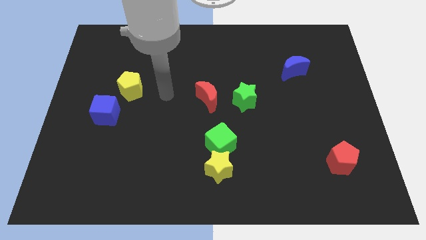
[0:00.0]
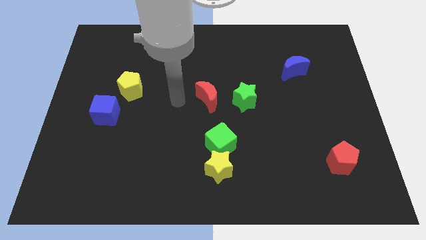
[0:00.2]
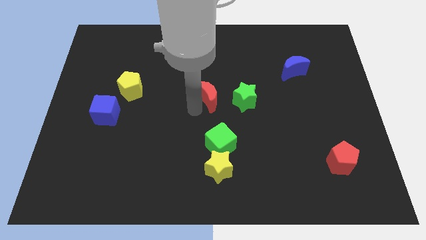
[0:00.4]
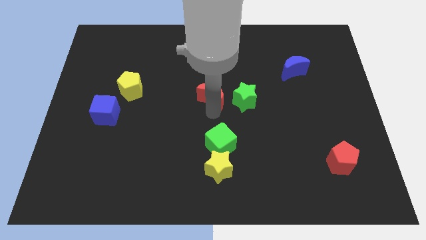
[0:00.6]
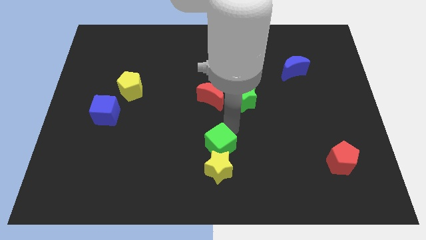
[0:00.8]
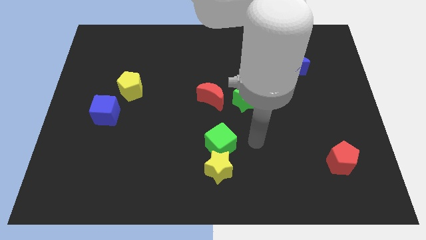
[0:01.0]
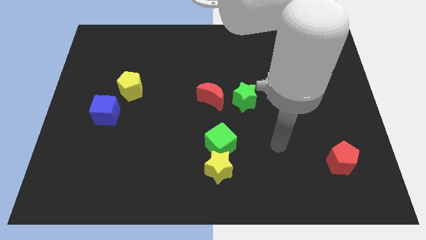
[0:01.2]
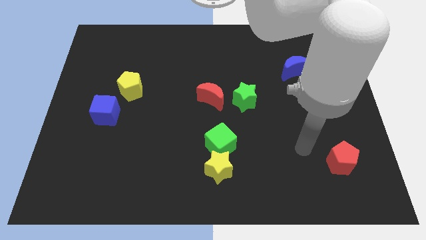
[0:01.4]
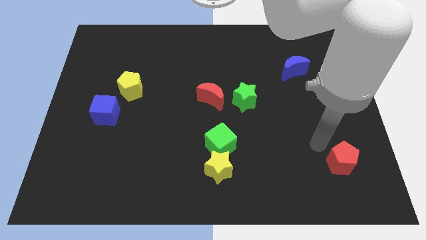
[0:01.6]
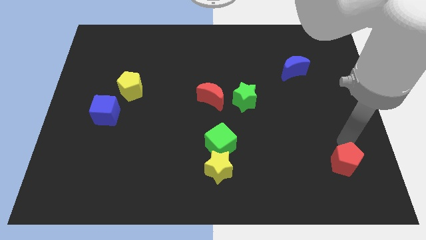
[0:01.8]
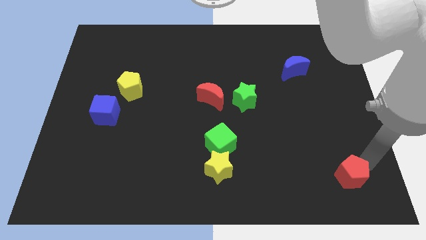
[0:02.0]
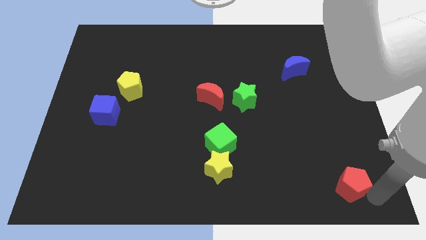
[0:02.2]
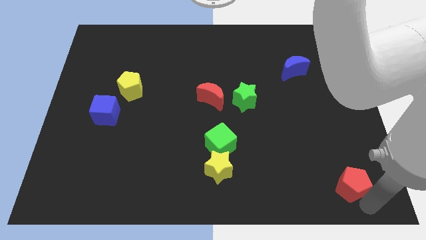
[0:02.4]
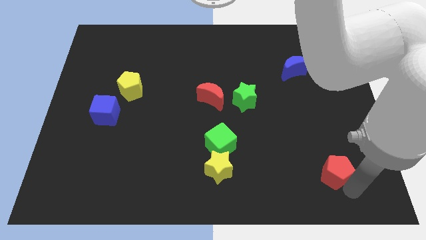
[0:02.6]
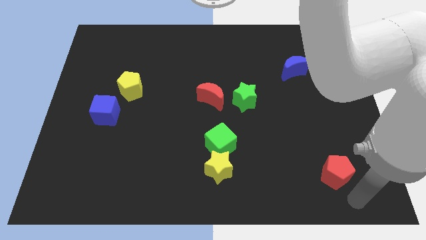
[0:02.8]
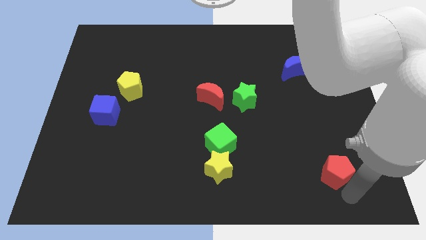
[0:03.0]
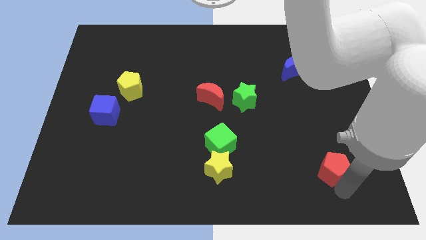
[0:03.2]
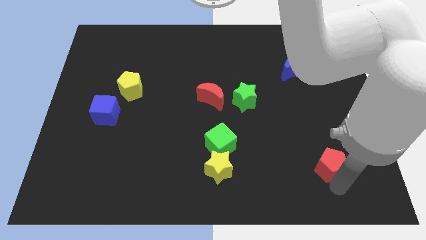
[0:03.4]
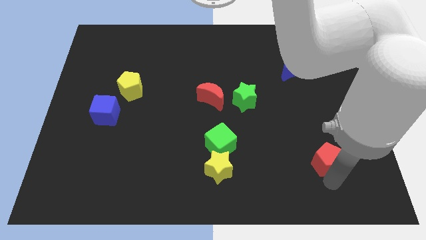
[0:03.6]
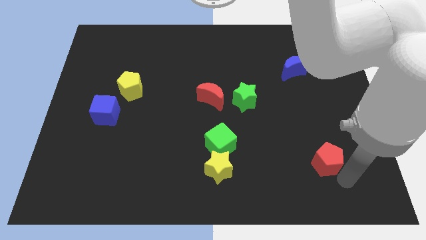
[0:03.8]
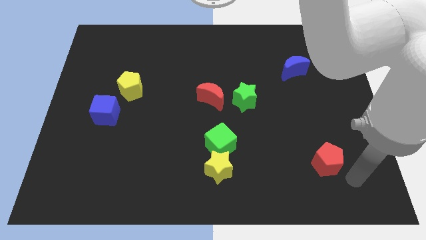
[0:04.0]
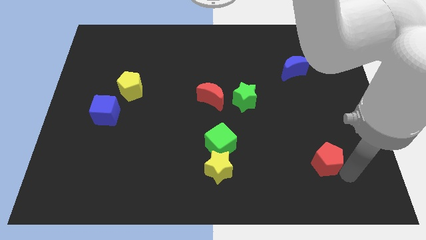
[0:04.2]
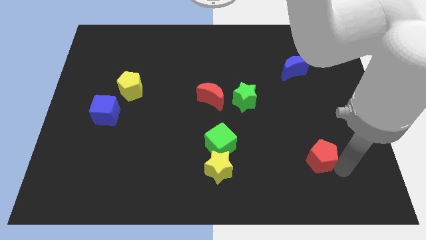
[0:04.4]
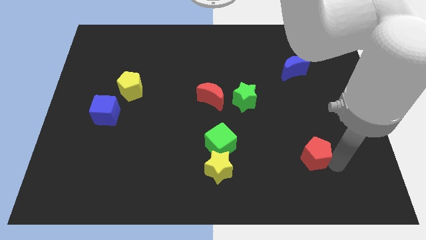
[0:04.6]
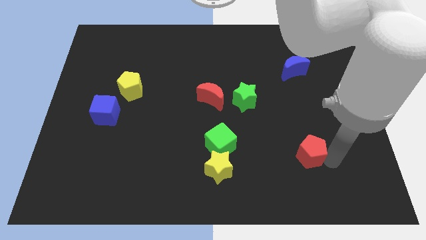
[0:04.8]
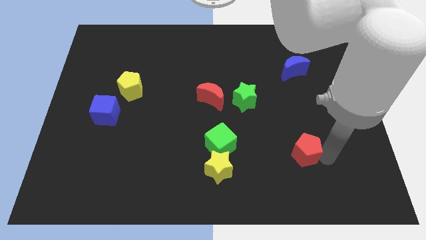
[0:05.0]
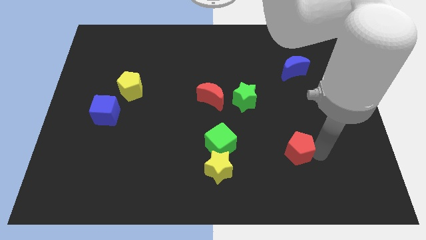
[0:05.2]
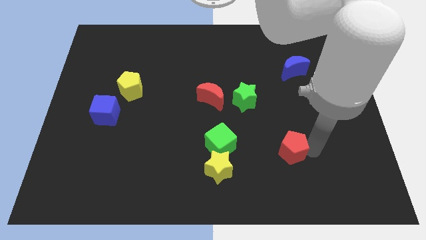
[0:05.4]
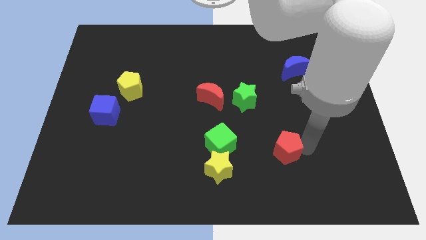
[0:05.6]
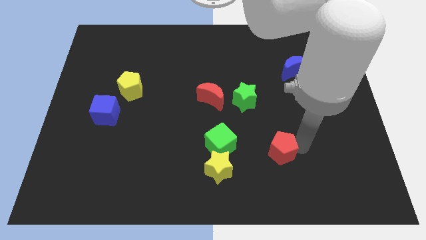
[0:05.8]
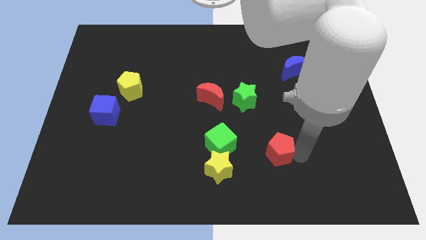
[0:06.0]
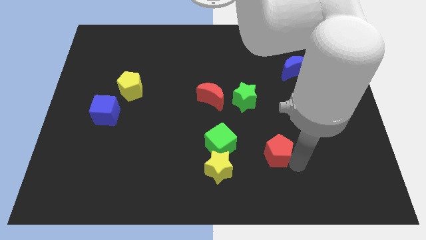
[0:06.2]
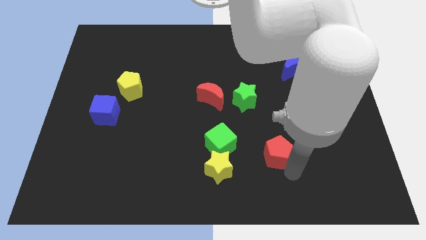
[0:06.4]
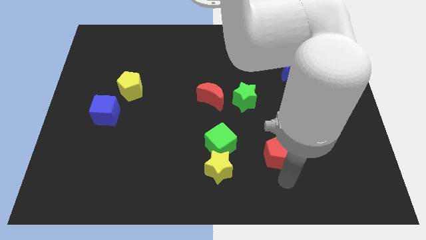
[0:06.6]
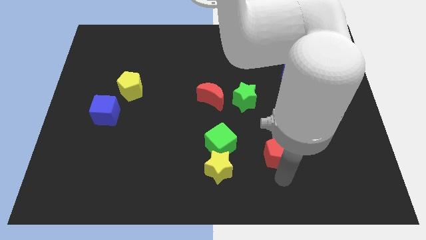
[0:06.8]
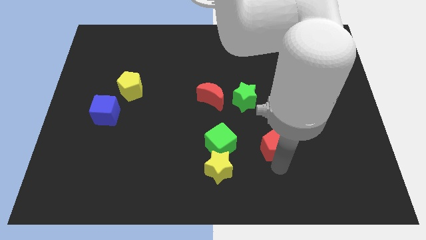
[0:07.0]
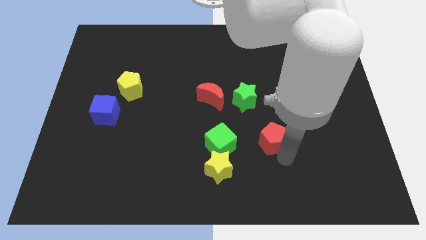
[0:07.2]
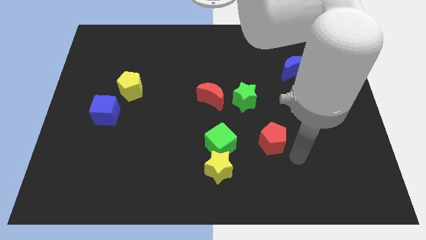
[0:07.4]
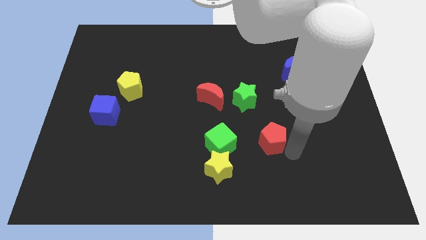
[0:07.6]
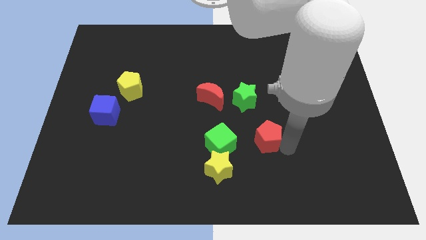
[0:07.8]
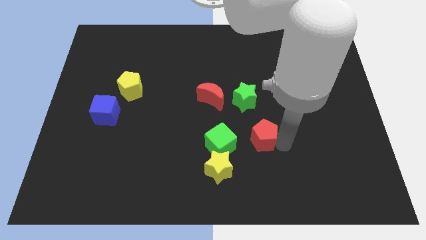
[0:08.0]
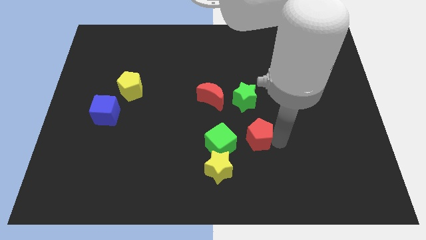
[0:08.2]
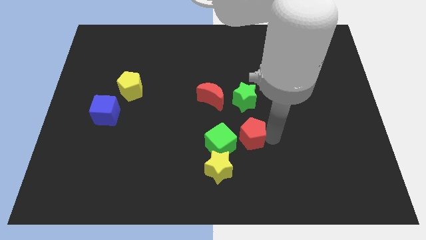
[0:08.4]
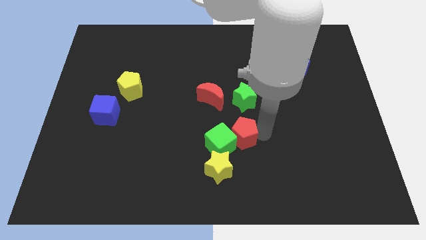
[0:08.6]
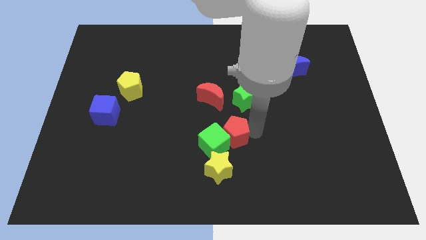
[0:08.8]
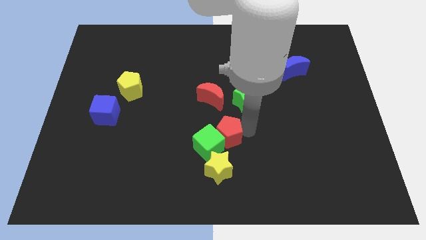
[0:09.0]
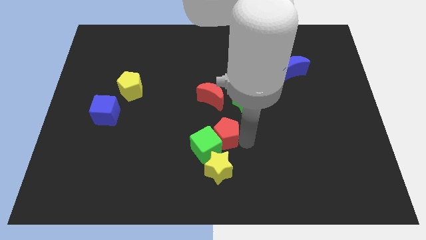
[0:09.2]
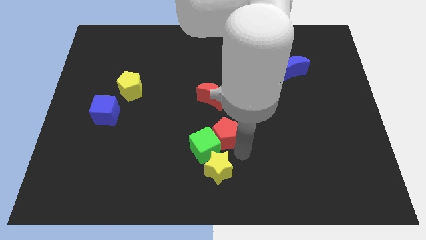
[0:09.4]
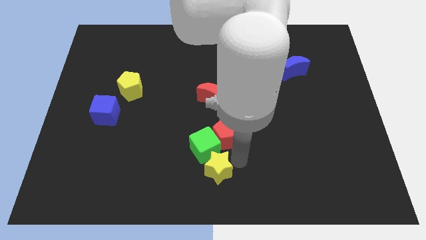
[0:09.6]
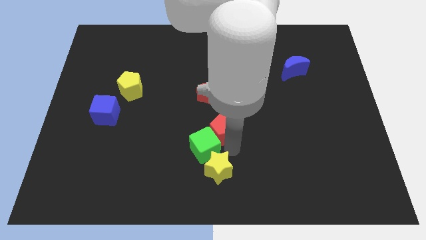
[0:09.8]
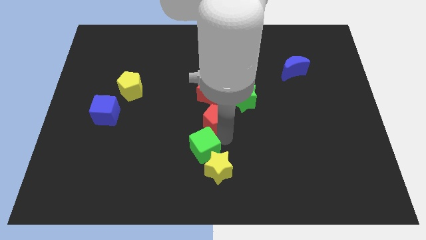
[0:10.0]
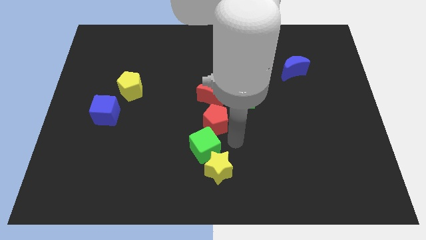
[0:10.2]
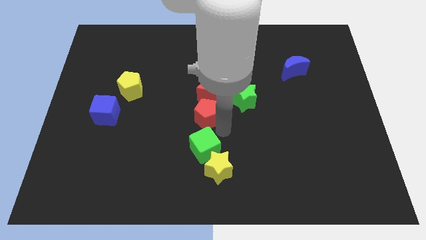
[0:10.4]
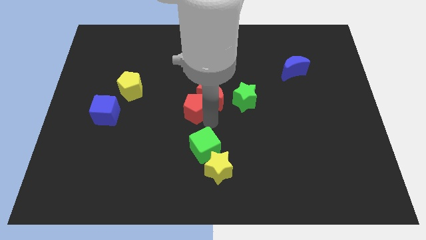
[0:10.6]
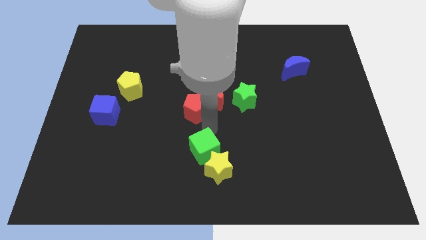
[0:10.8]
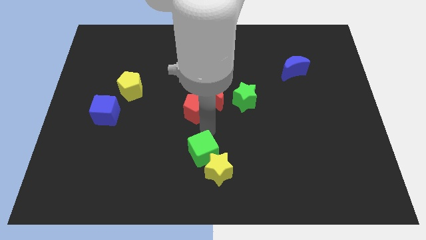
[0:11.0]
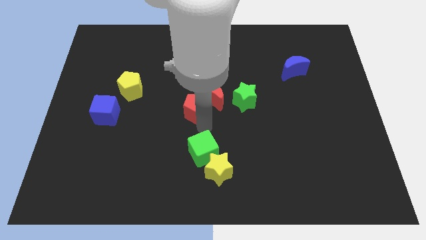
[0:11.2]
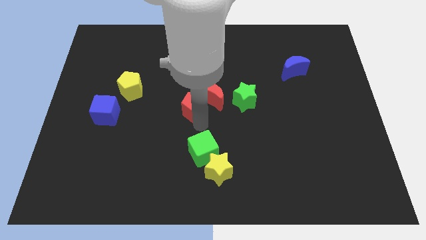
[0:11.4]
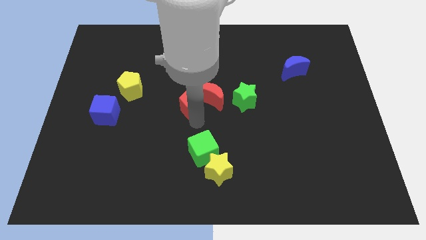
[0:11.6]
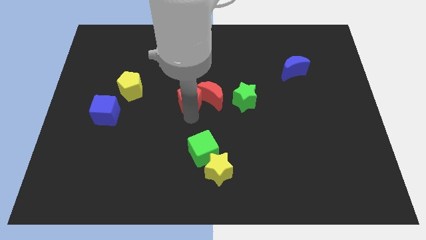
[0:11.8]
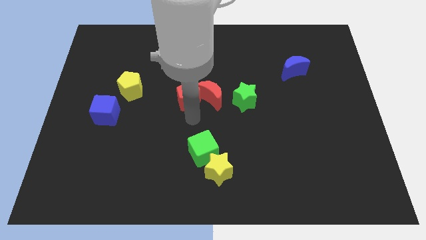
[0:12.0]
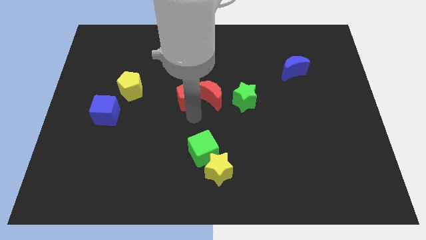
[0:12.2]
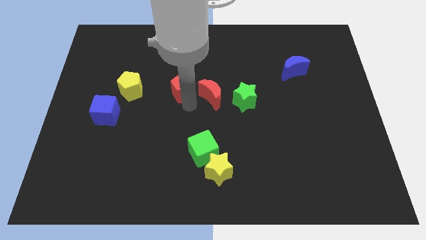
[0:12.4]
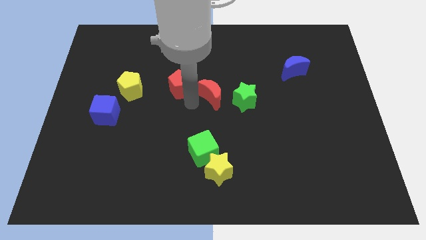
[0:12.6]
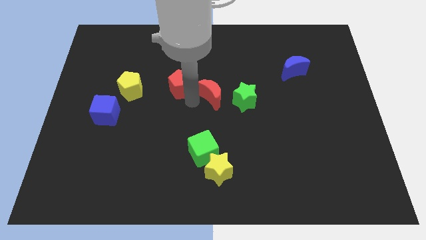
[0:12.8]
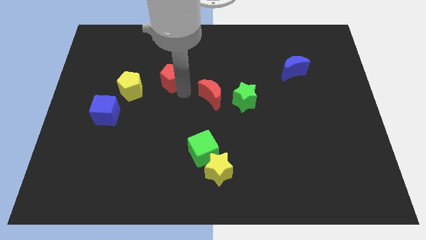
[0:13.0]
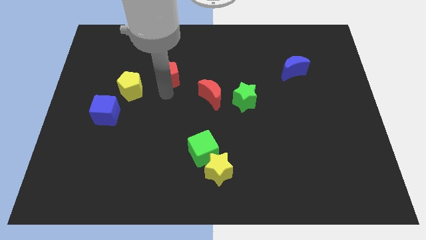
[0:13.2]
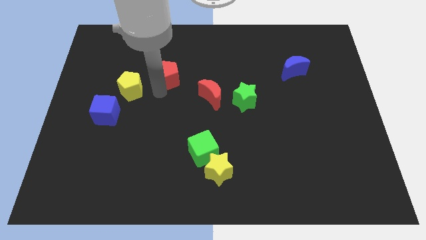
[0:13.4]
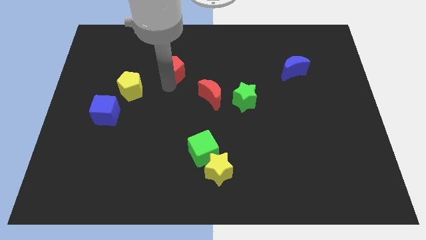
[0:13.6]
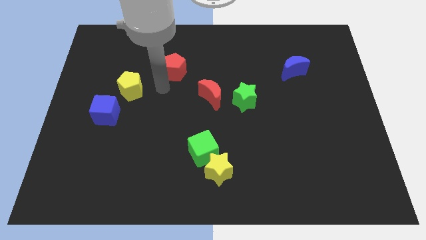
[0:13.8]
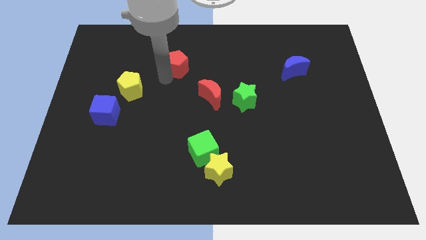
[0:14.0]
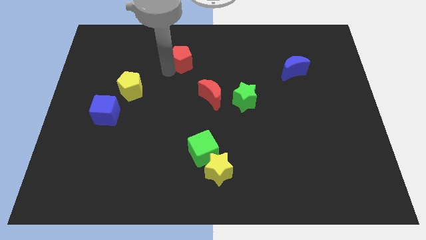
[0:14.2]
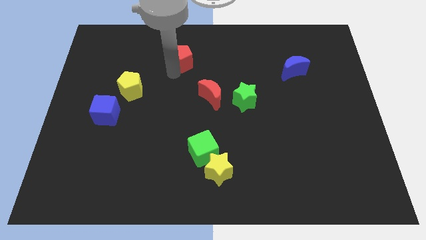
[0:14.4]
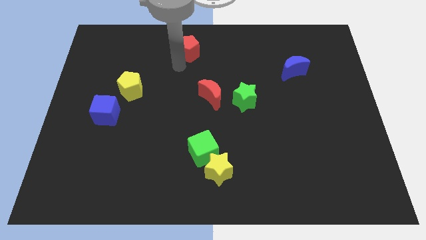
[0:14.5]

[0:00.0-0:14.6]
move the red pentagon to the top side
